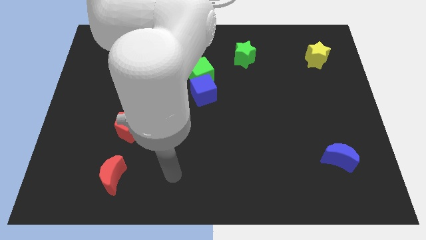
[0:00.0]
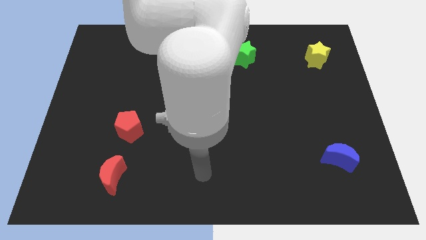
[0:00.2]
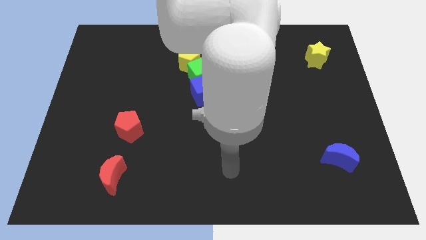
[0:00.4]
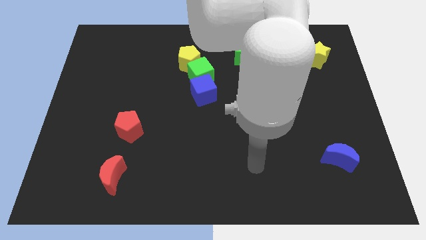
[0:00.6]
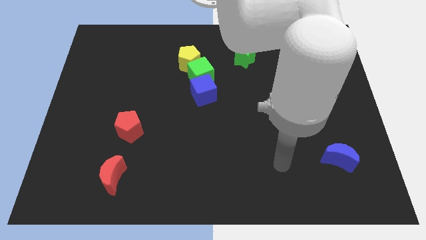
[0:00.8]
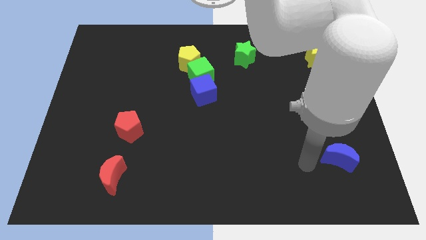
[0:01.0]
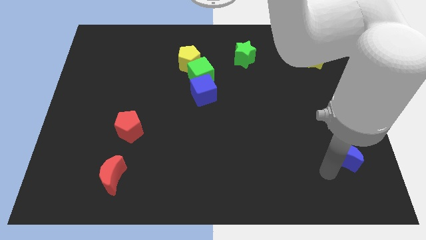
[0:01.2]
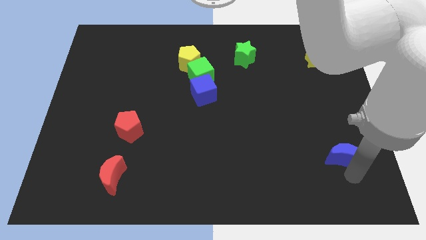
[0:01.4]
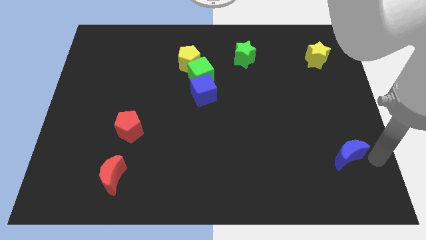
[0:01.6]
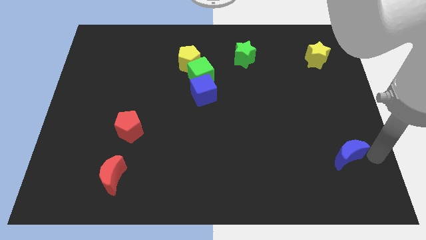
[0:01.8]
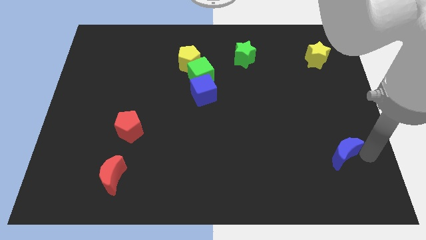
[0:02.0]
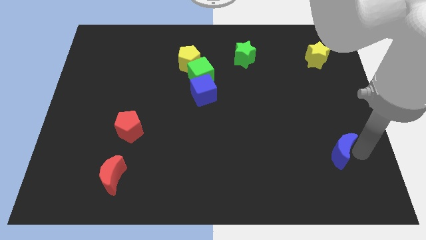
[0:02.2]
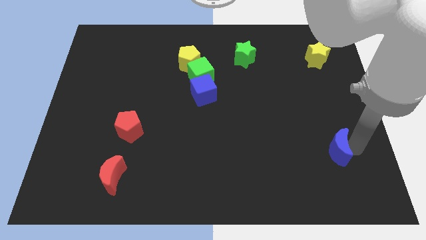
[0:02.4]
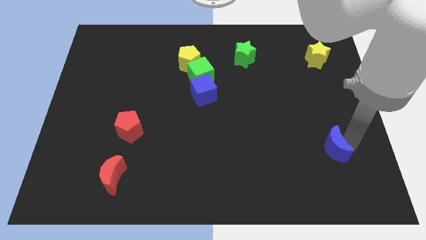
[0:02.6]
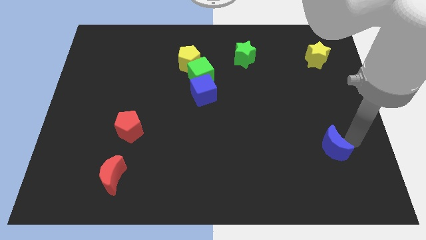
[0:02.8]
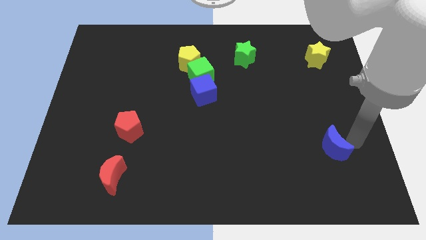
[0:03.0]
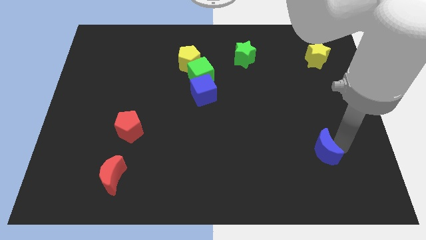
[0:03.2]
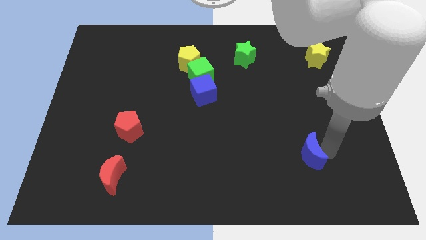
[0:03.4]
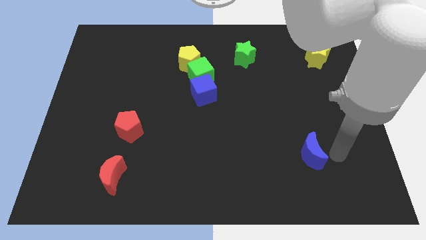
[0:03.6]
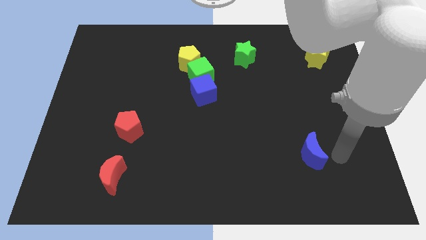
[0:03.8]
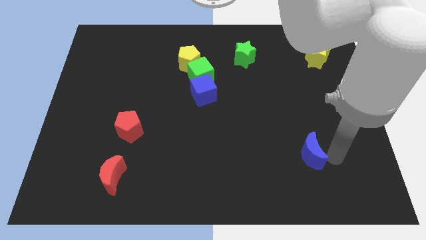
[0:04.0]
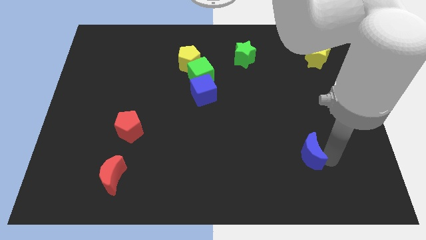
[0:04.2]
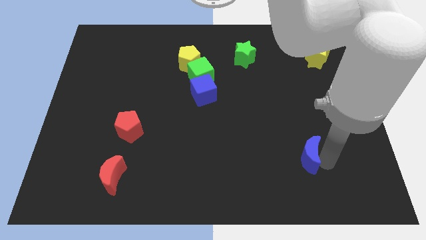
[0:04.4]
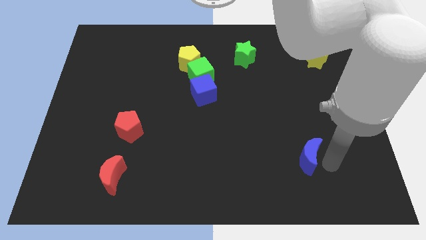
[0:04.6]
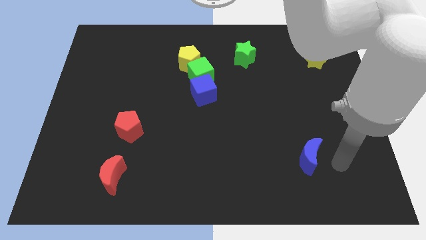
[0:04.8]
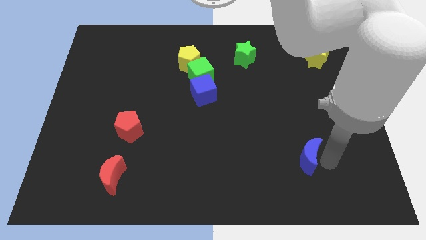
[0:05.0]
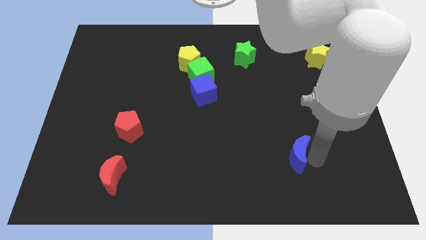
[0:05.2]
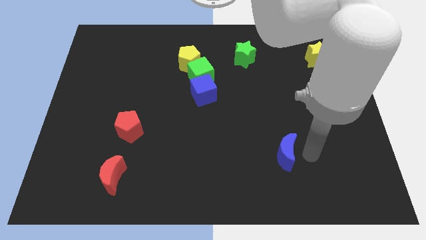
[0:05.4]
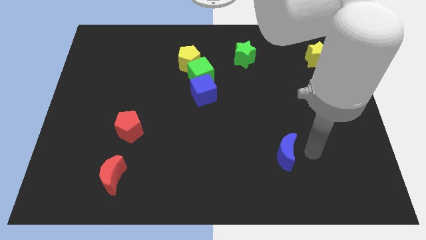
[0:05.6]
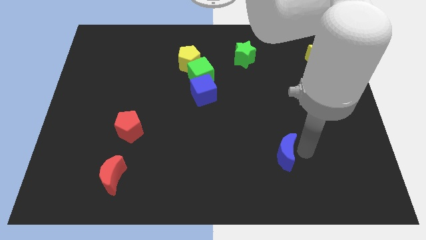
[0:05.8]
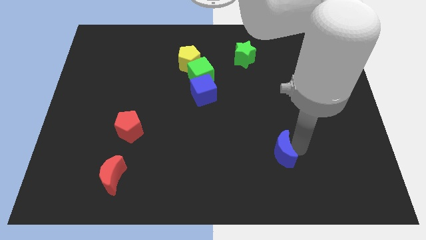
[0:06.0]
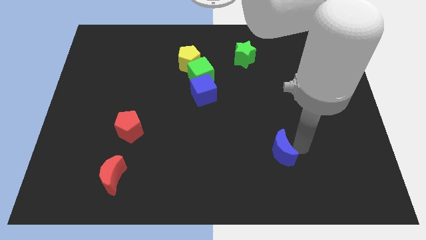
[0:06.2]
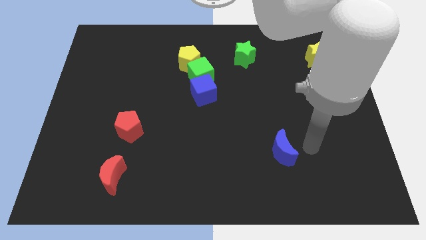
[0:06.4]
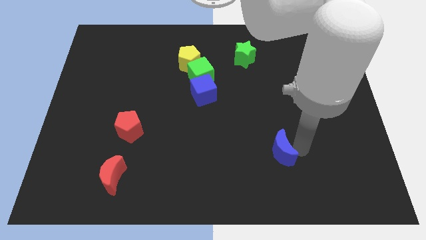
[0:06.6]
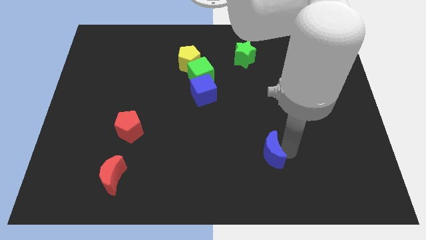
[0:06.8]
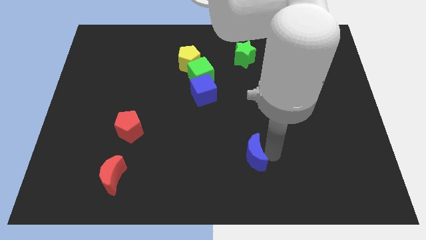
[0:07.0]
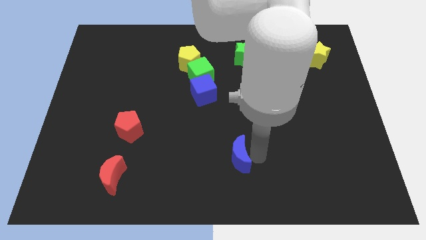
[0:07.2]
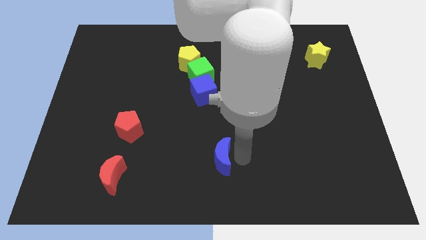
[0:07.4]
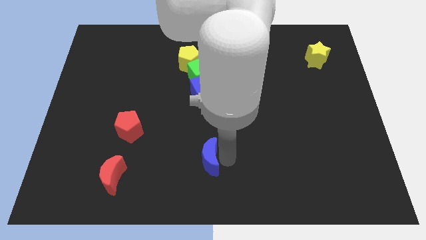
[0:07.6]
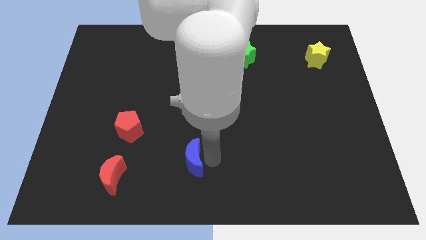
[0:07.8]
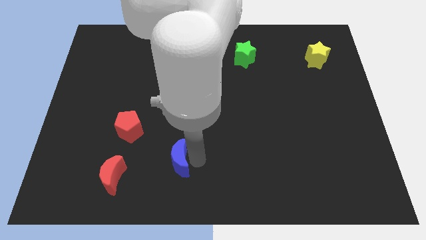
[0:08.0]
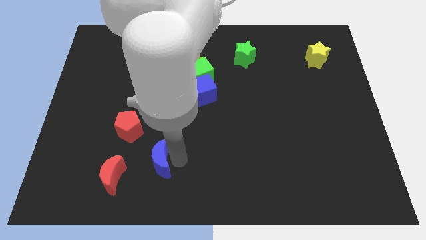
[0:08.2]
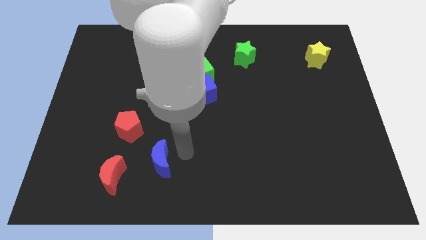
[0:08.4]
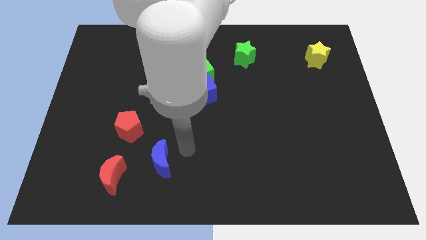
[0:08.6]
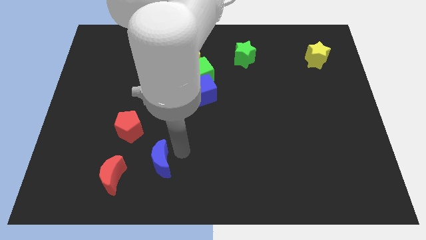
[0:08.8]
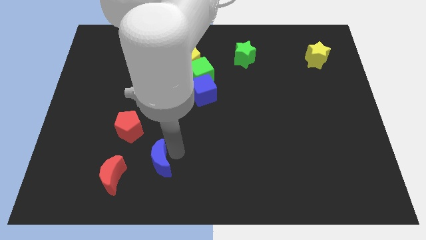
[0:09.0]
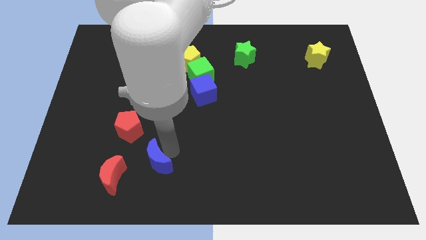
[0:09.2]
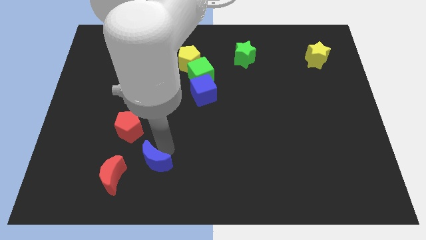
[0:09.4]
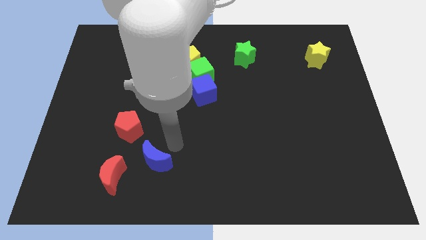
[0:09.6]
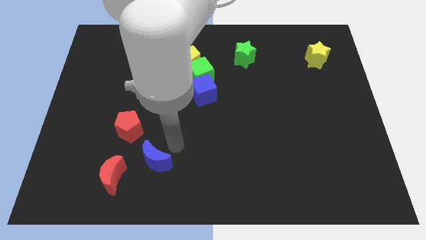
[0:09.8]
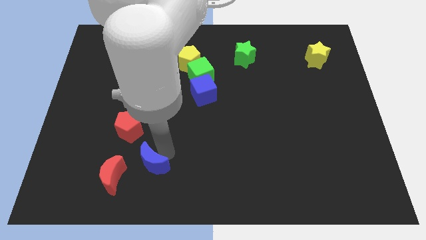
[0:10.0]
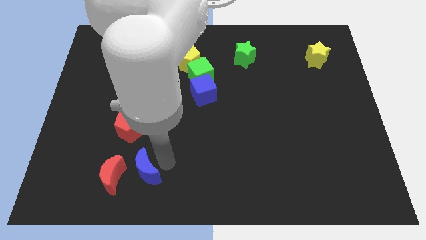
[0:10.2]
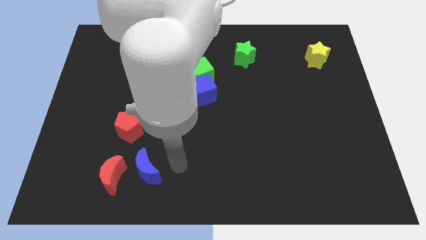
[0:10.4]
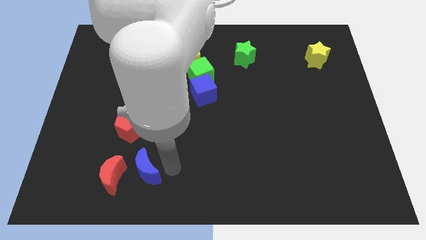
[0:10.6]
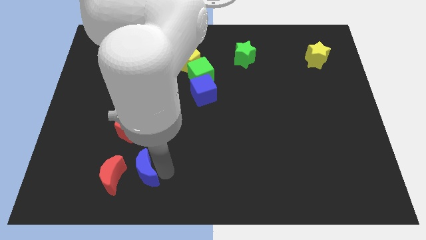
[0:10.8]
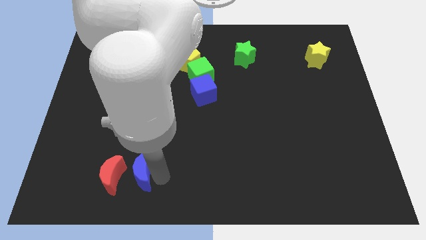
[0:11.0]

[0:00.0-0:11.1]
put the blue moon to the red moon

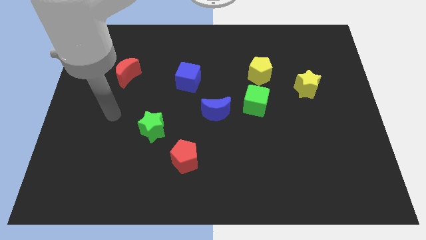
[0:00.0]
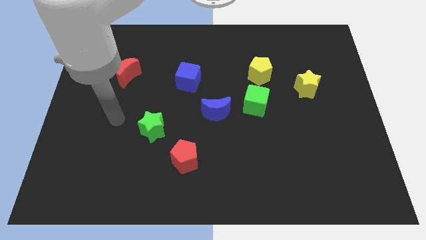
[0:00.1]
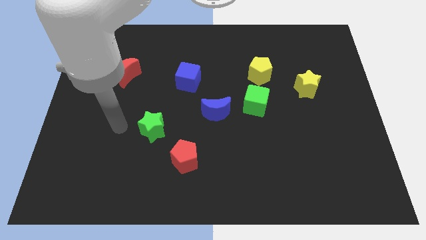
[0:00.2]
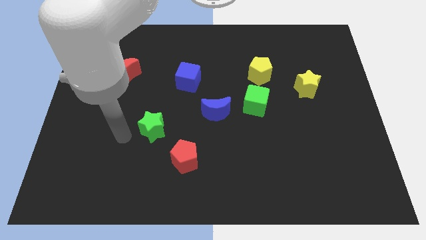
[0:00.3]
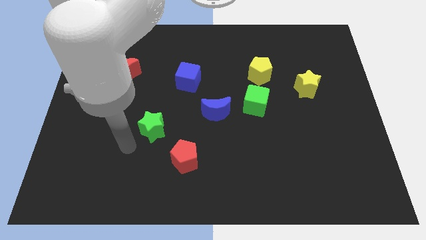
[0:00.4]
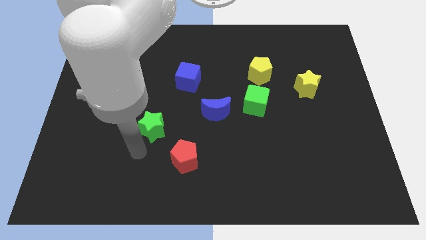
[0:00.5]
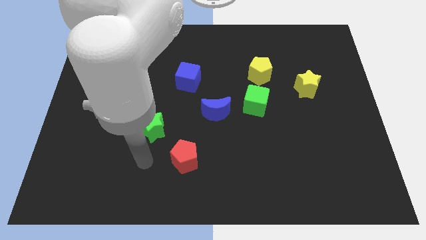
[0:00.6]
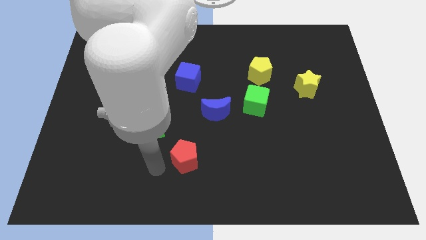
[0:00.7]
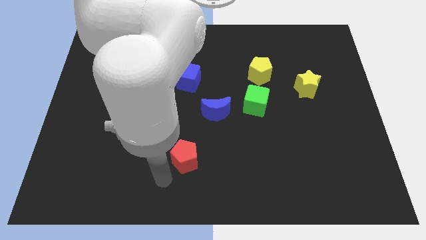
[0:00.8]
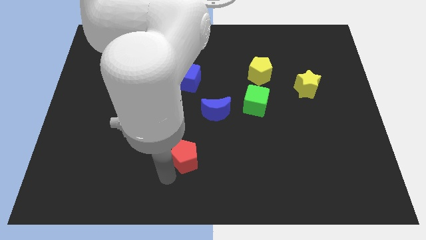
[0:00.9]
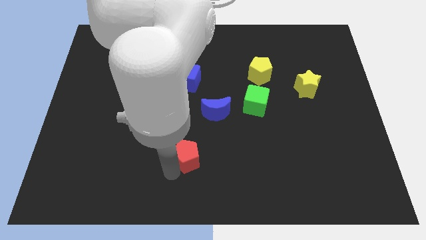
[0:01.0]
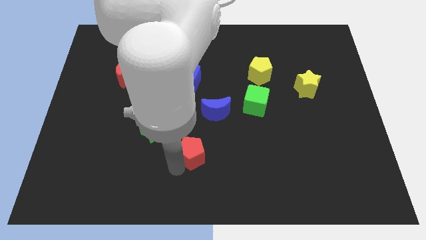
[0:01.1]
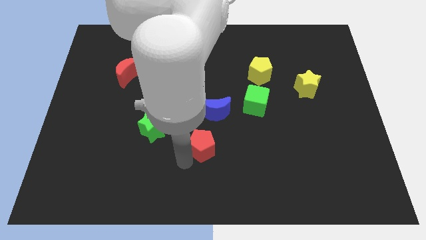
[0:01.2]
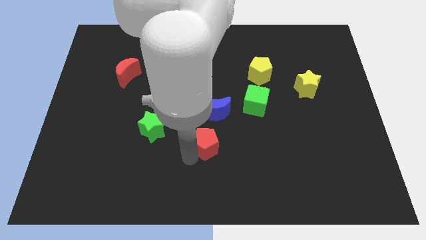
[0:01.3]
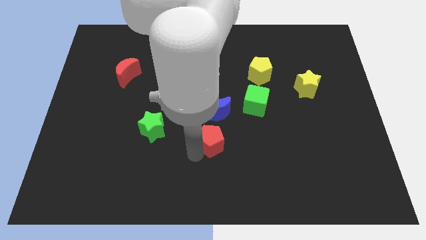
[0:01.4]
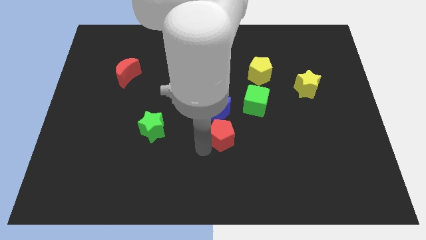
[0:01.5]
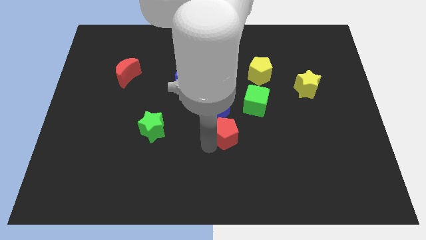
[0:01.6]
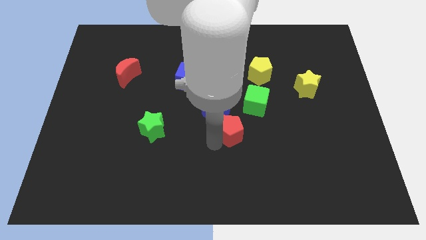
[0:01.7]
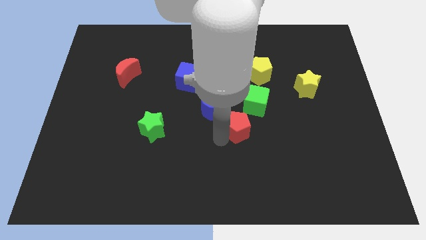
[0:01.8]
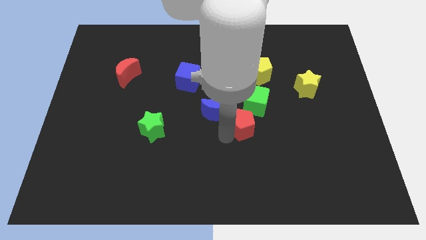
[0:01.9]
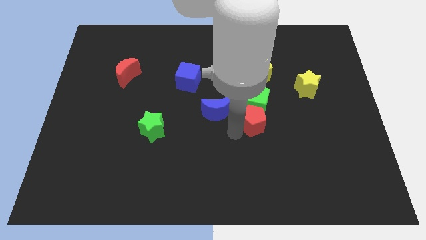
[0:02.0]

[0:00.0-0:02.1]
push the red pentagon towards the green cube
